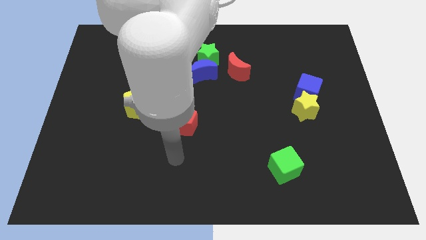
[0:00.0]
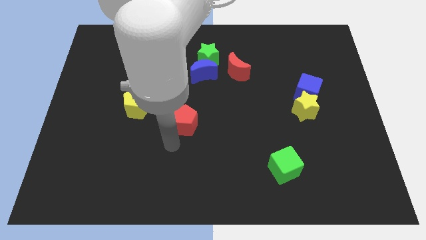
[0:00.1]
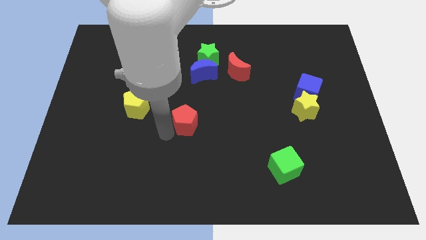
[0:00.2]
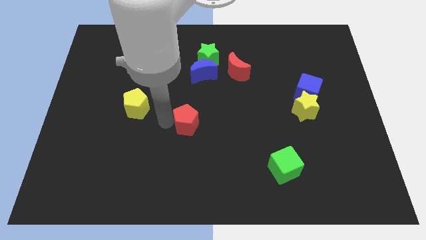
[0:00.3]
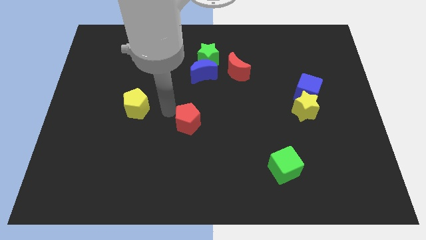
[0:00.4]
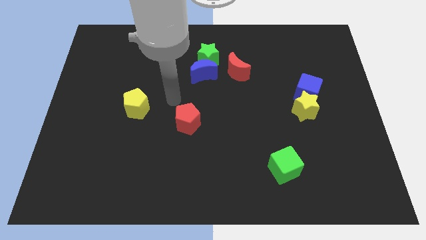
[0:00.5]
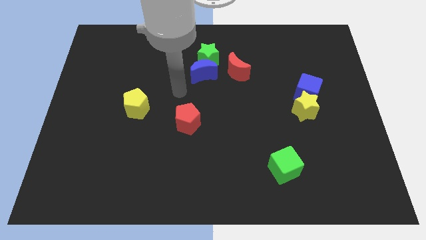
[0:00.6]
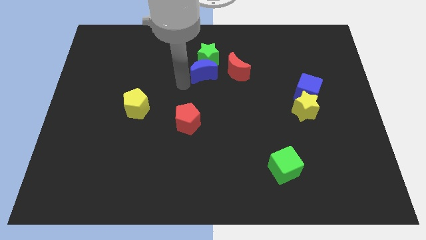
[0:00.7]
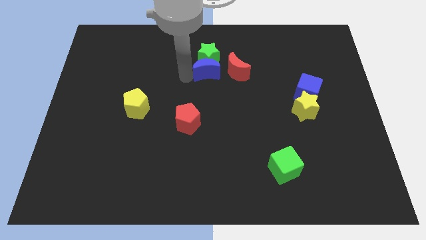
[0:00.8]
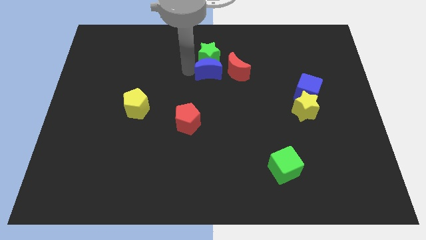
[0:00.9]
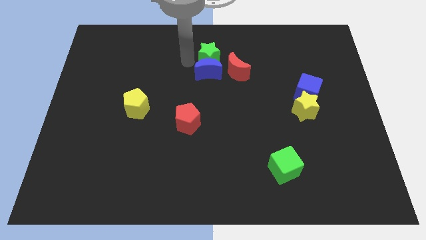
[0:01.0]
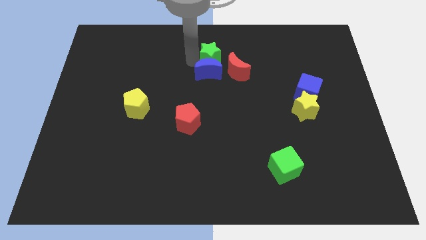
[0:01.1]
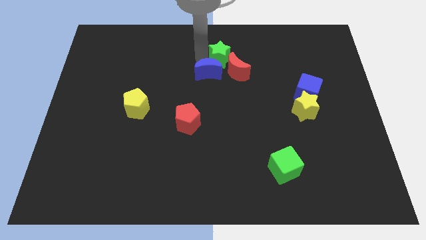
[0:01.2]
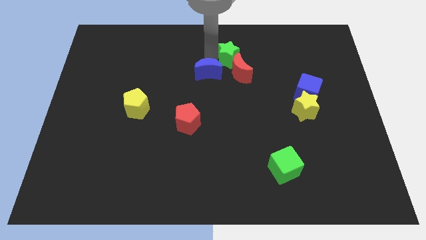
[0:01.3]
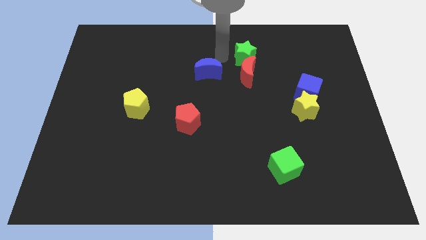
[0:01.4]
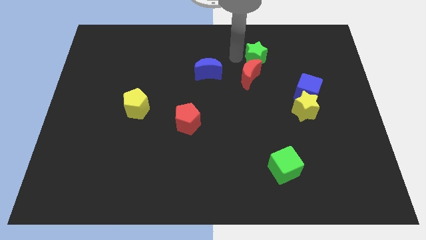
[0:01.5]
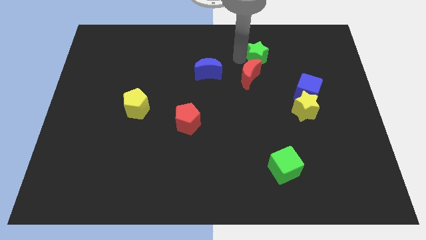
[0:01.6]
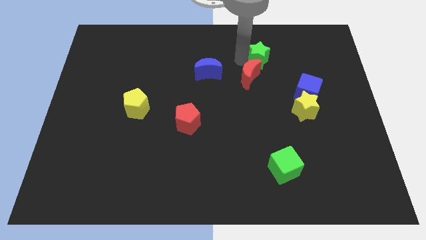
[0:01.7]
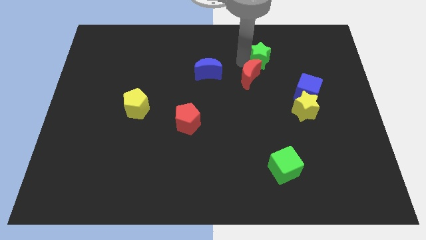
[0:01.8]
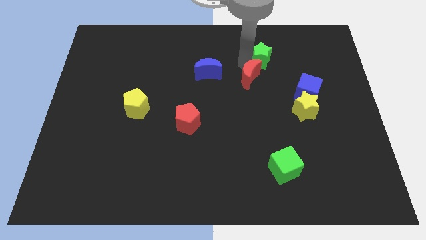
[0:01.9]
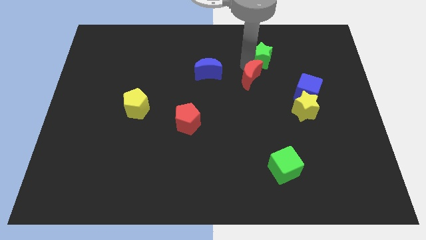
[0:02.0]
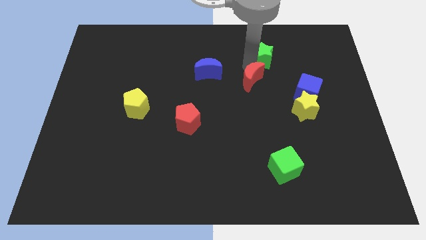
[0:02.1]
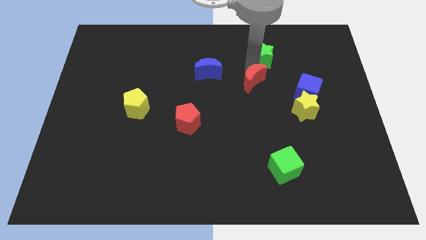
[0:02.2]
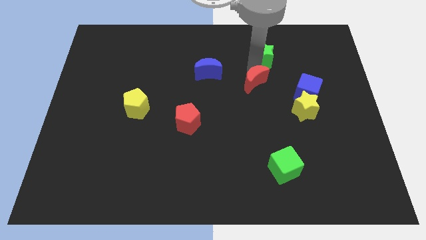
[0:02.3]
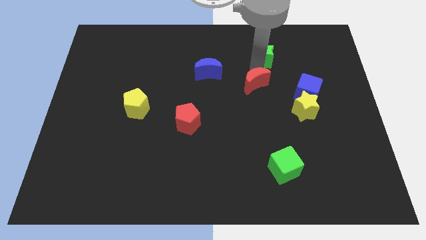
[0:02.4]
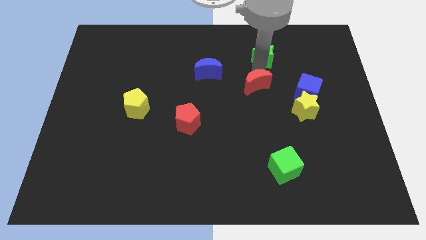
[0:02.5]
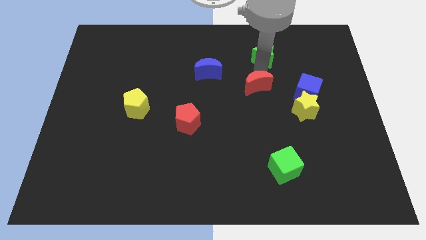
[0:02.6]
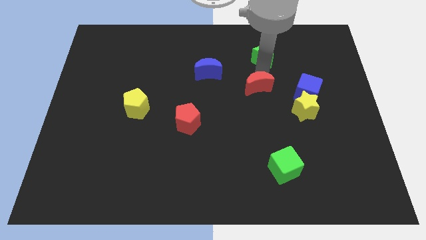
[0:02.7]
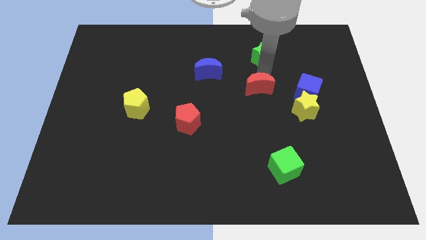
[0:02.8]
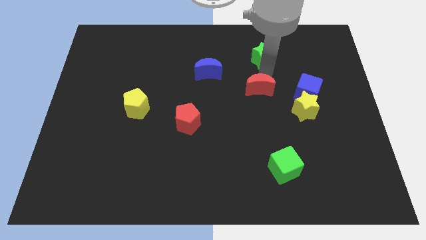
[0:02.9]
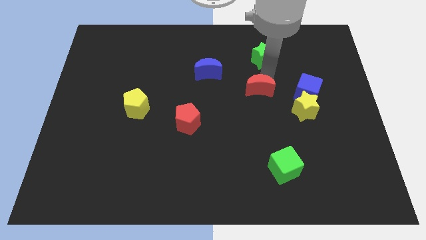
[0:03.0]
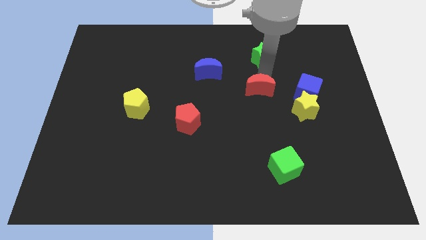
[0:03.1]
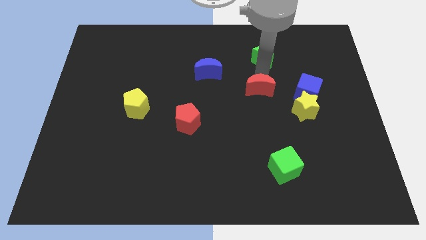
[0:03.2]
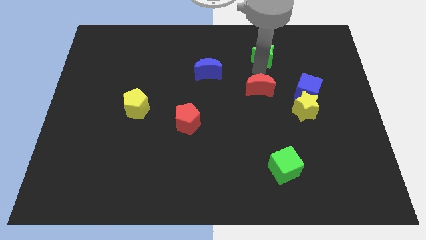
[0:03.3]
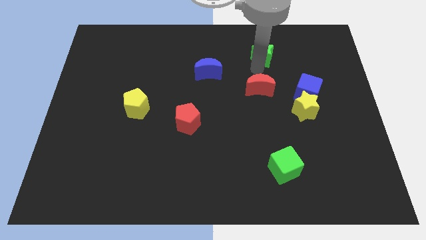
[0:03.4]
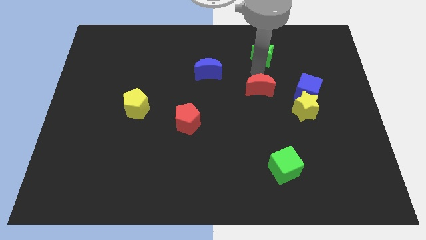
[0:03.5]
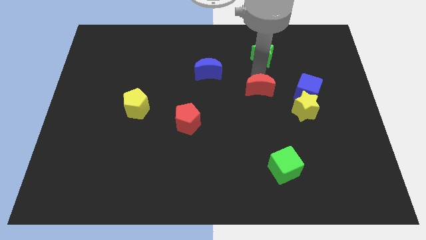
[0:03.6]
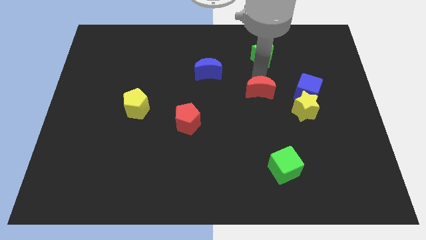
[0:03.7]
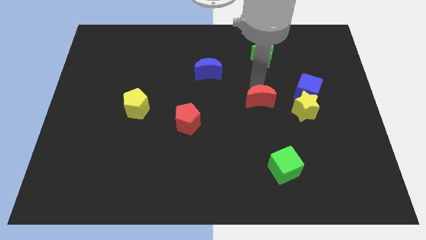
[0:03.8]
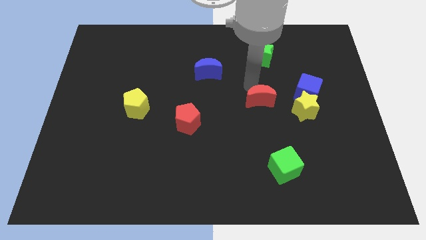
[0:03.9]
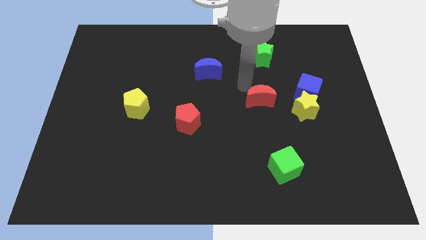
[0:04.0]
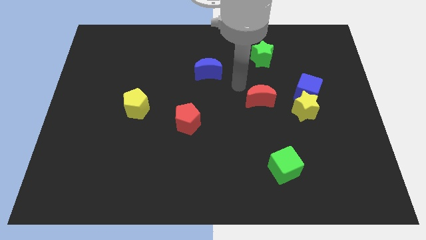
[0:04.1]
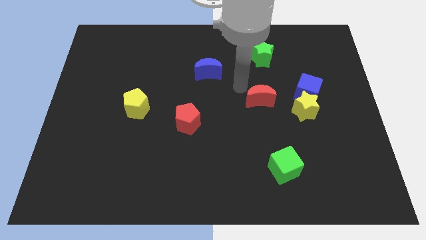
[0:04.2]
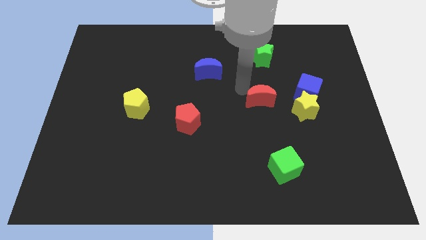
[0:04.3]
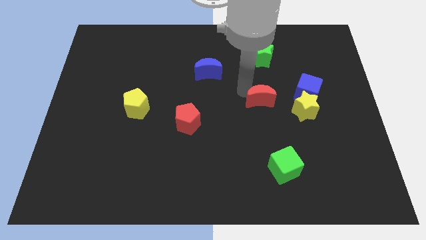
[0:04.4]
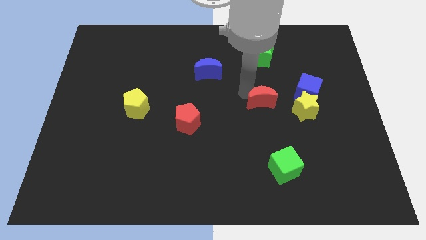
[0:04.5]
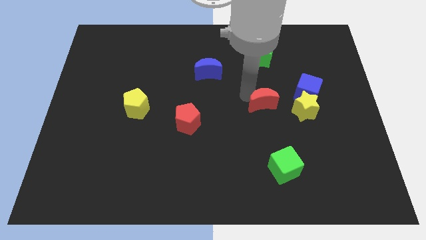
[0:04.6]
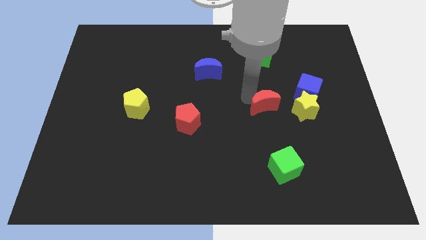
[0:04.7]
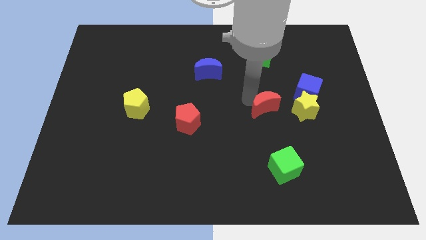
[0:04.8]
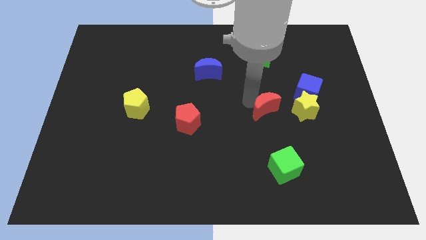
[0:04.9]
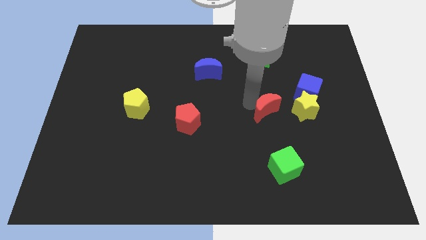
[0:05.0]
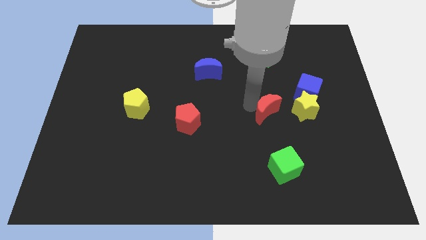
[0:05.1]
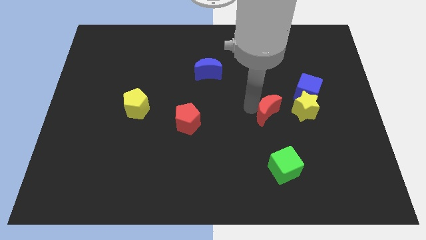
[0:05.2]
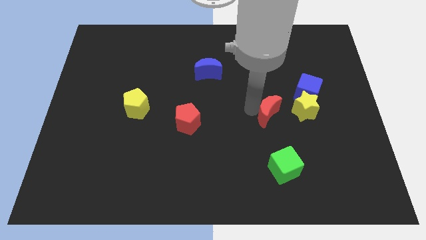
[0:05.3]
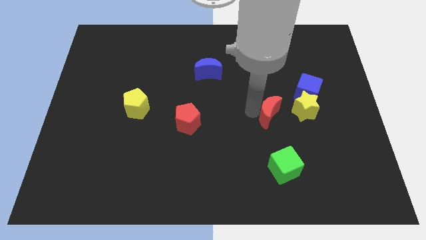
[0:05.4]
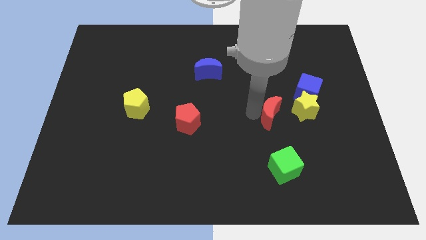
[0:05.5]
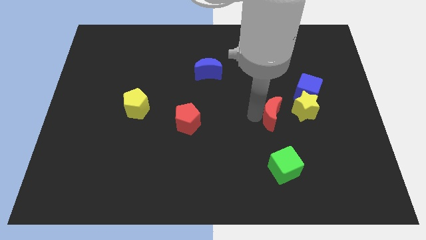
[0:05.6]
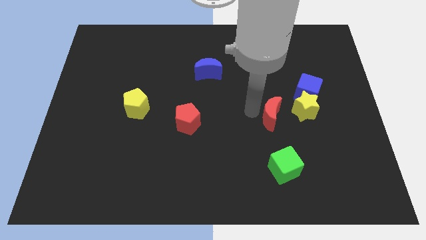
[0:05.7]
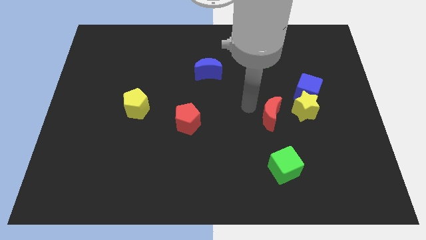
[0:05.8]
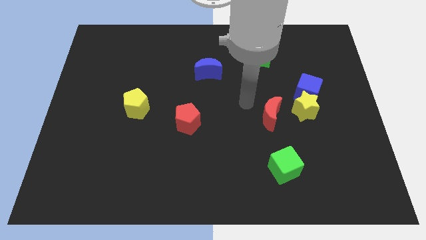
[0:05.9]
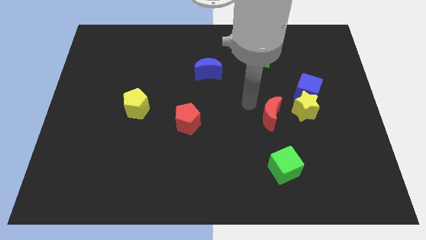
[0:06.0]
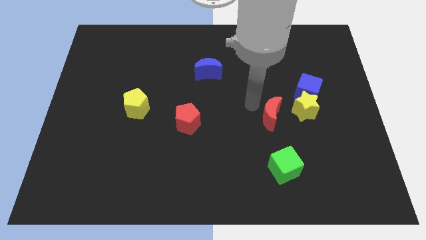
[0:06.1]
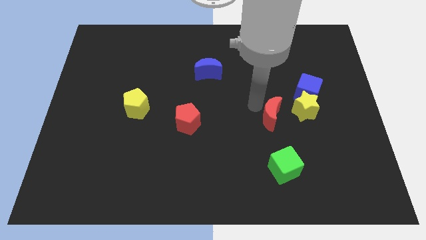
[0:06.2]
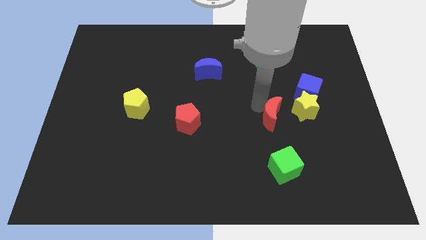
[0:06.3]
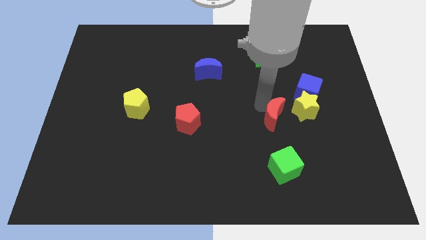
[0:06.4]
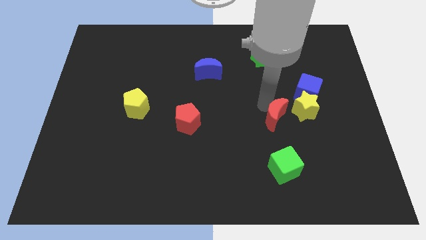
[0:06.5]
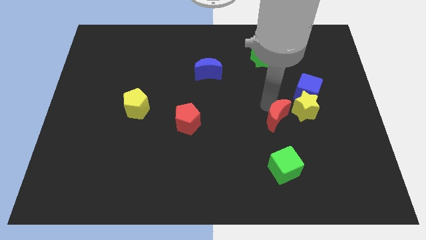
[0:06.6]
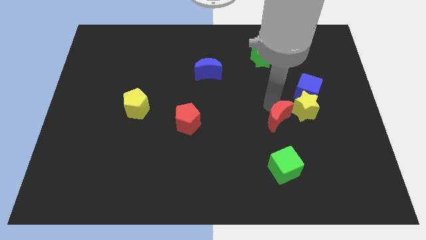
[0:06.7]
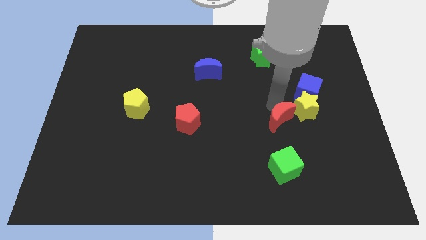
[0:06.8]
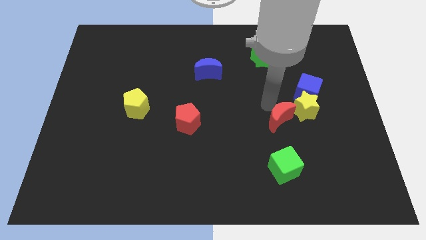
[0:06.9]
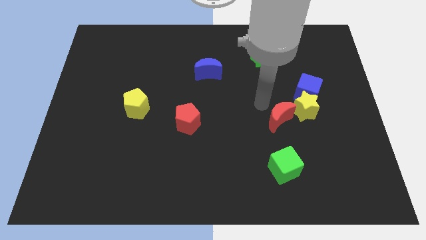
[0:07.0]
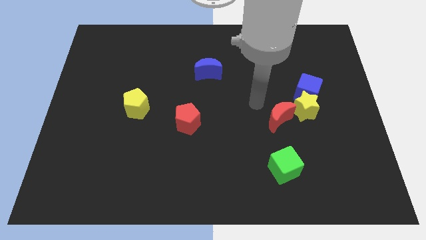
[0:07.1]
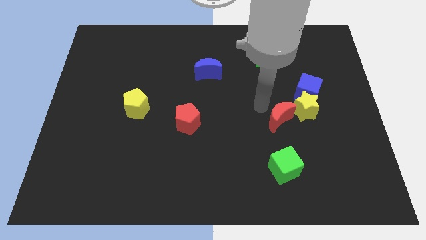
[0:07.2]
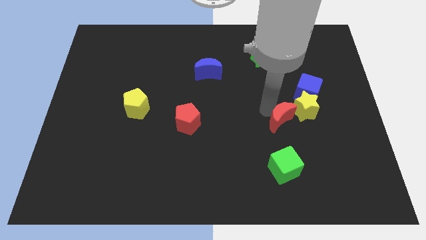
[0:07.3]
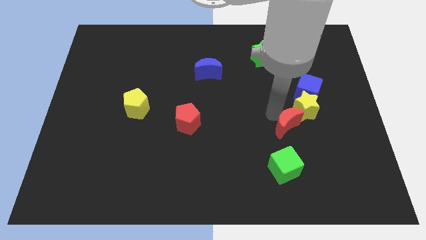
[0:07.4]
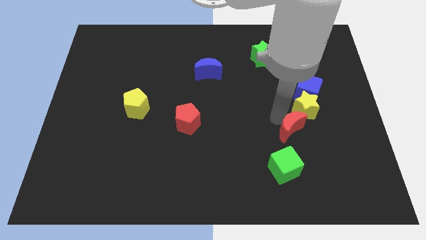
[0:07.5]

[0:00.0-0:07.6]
push the red moon down and to the right diagonally

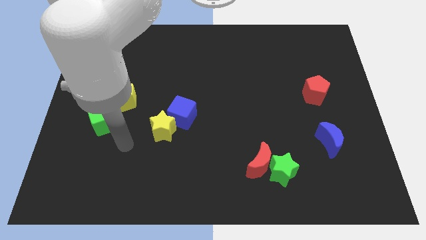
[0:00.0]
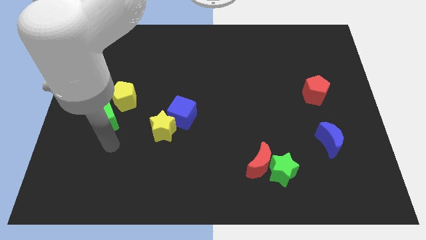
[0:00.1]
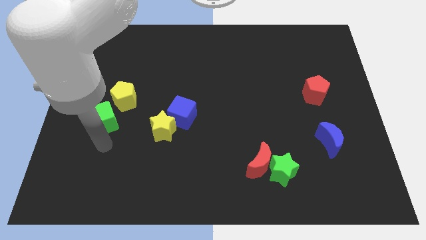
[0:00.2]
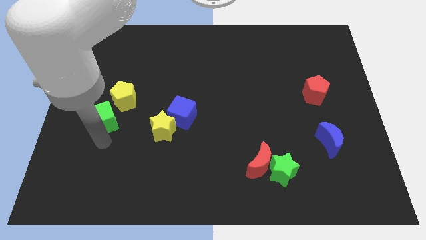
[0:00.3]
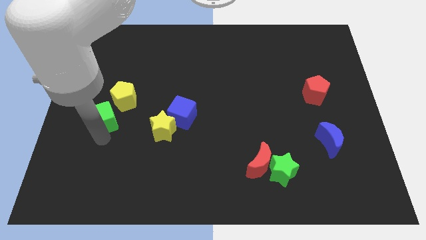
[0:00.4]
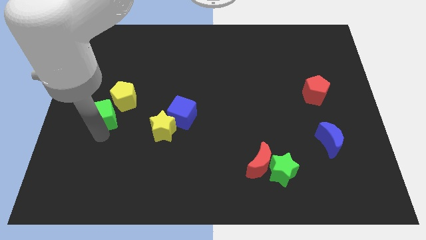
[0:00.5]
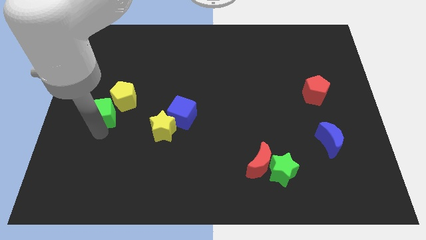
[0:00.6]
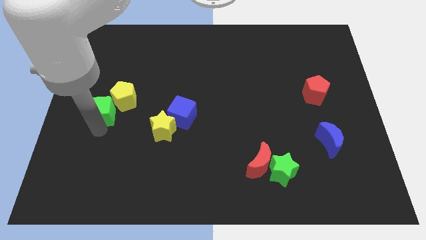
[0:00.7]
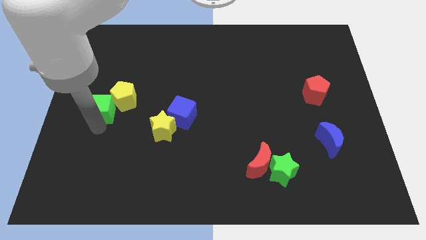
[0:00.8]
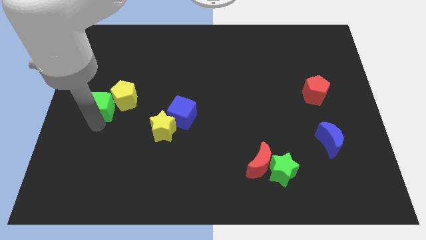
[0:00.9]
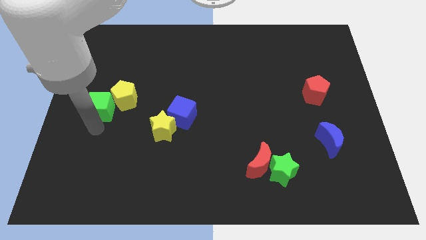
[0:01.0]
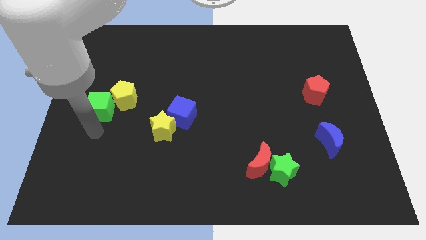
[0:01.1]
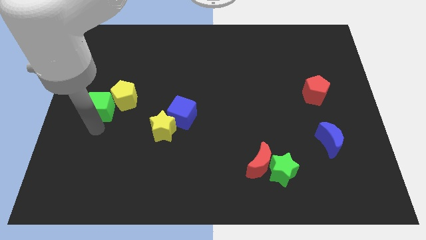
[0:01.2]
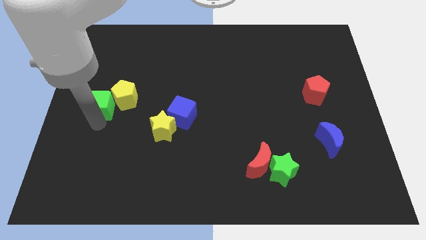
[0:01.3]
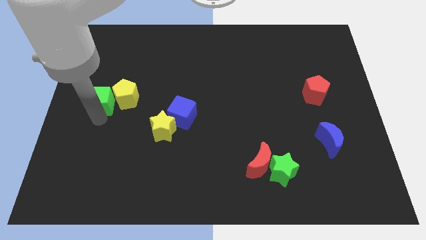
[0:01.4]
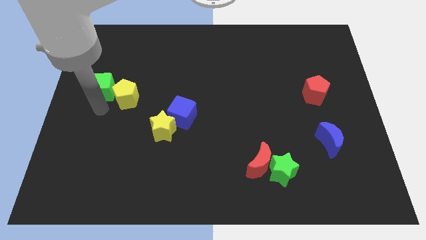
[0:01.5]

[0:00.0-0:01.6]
slightly push the green cube up
